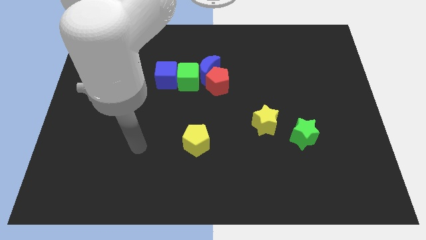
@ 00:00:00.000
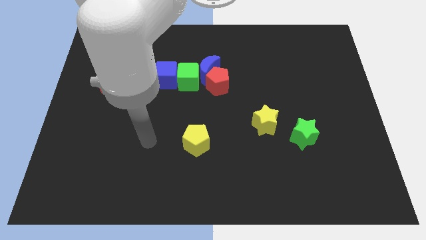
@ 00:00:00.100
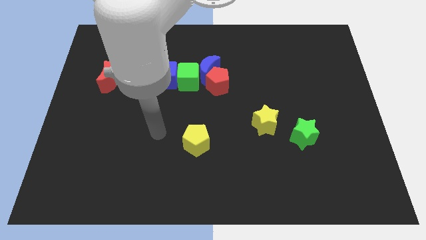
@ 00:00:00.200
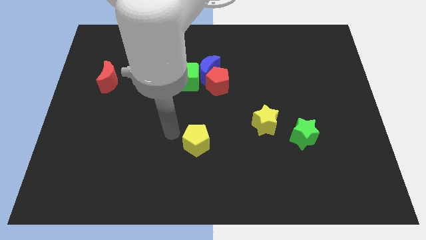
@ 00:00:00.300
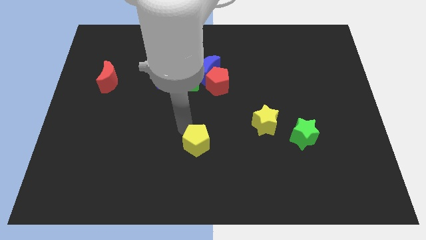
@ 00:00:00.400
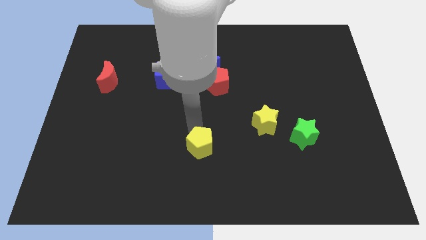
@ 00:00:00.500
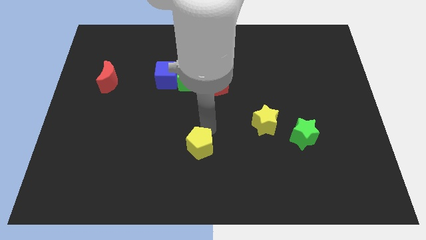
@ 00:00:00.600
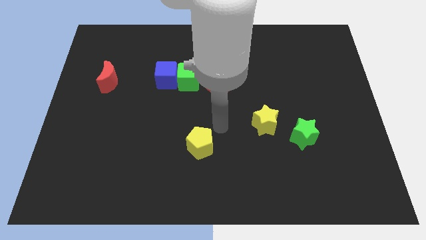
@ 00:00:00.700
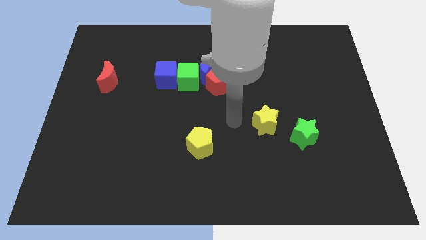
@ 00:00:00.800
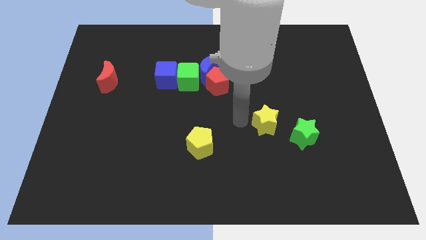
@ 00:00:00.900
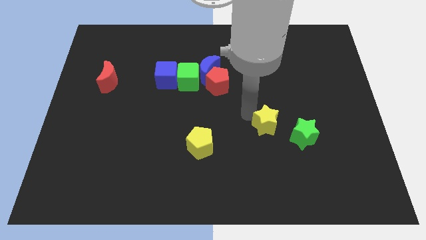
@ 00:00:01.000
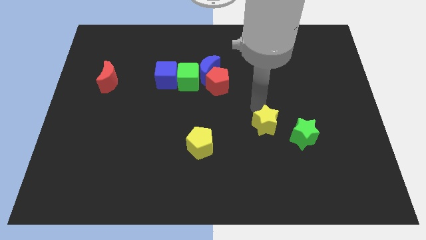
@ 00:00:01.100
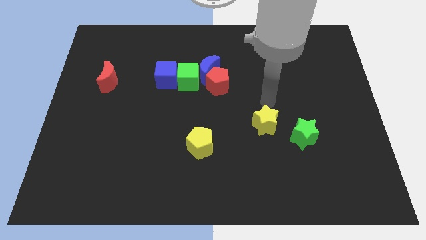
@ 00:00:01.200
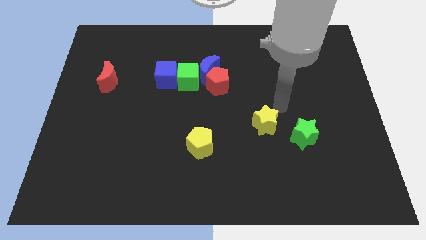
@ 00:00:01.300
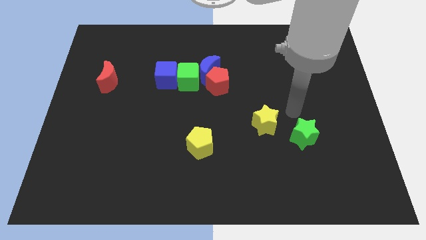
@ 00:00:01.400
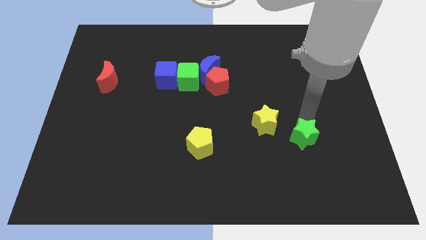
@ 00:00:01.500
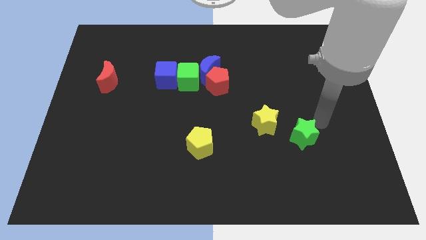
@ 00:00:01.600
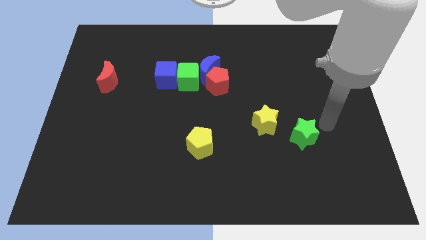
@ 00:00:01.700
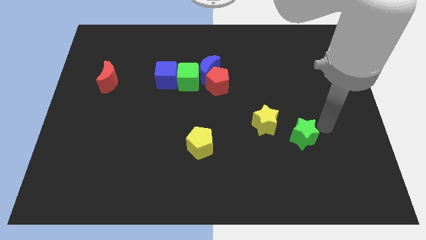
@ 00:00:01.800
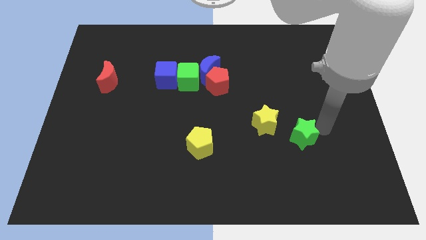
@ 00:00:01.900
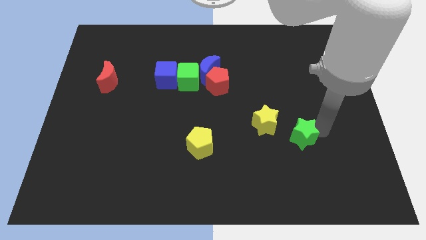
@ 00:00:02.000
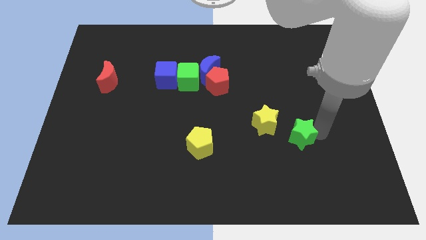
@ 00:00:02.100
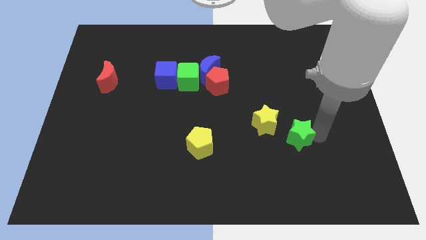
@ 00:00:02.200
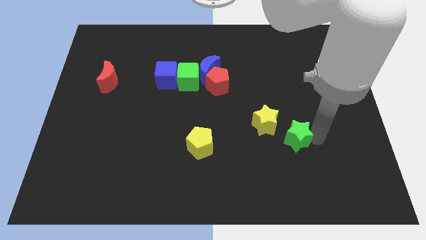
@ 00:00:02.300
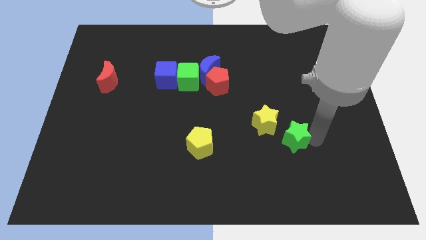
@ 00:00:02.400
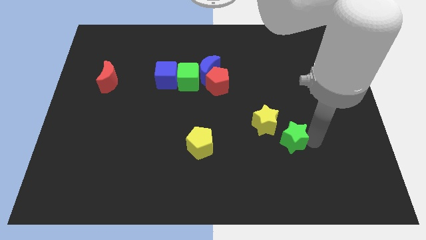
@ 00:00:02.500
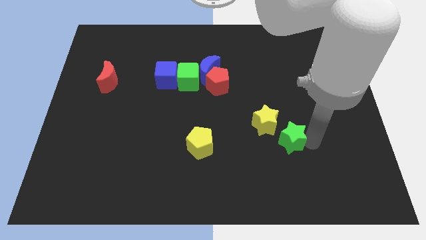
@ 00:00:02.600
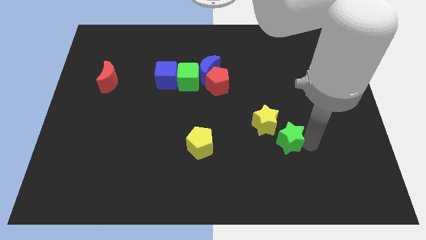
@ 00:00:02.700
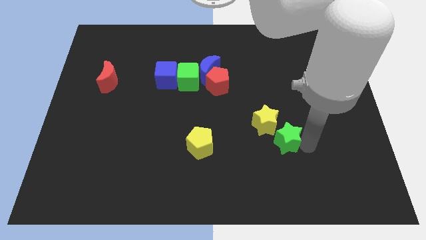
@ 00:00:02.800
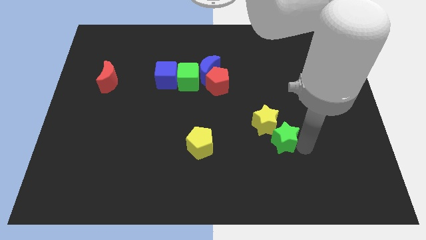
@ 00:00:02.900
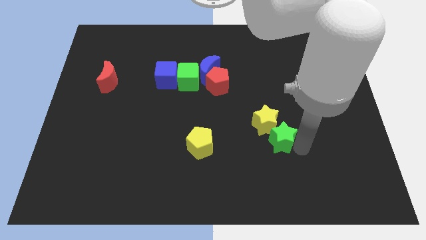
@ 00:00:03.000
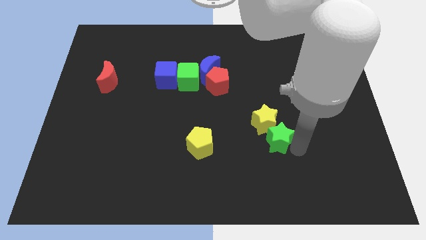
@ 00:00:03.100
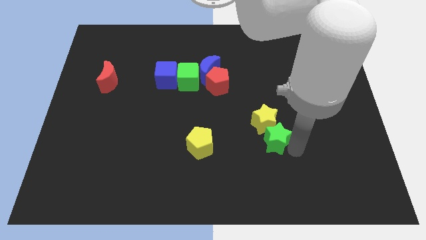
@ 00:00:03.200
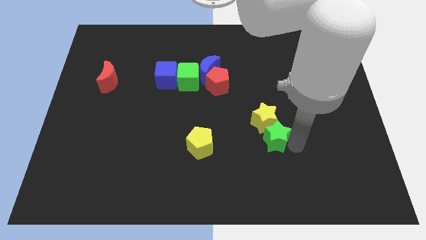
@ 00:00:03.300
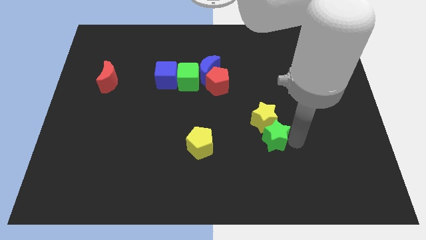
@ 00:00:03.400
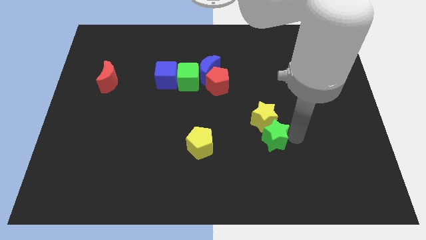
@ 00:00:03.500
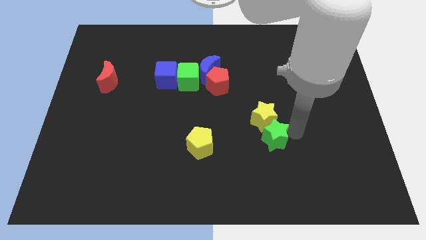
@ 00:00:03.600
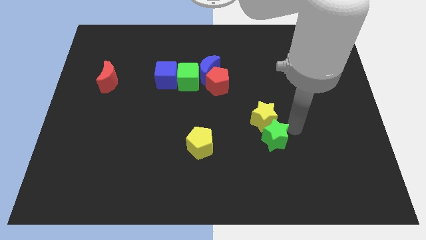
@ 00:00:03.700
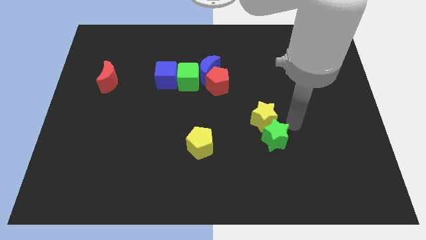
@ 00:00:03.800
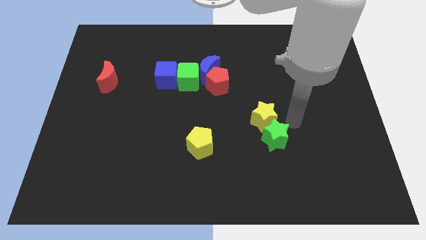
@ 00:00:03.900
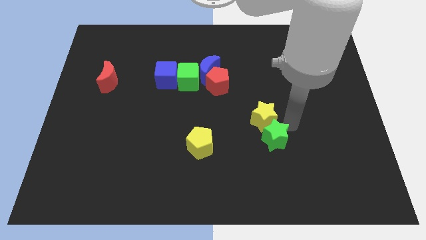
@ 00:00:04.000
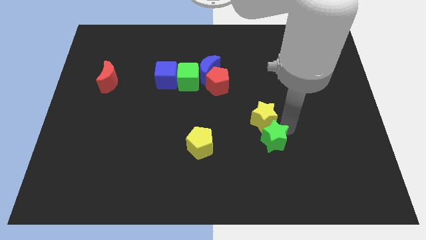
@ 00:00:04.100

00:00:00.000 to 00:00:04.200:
slightly slide the green star left

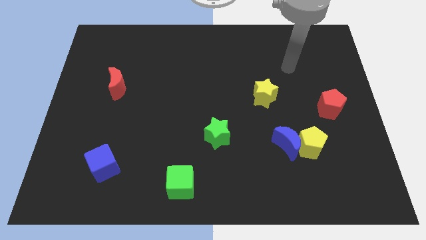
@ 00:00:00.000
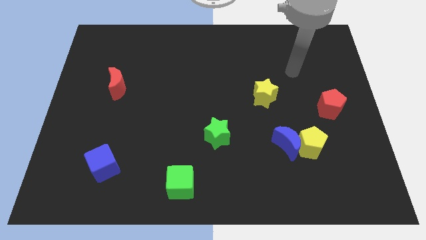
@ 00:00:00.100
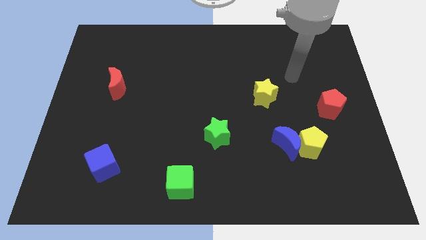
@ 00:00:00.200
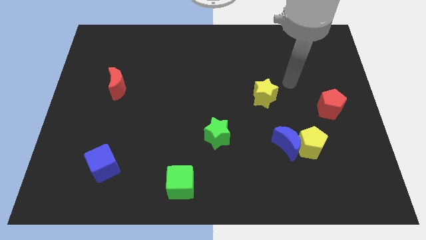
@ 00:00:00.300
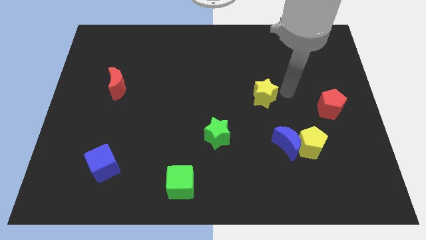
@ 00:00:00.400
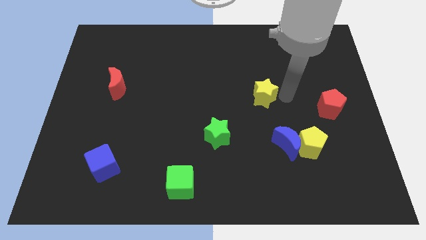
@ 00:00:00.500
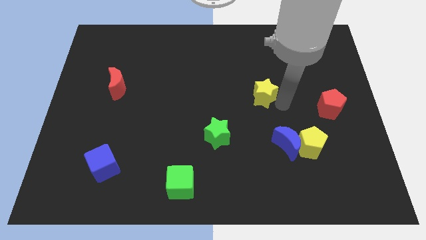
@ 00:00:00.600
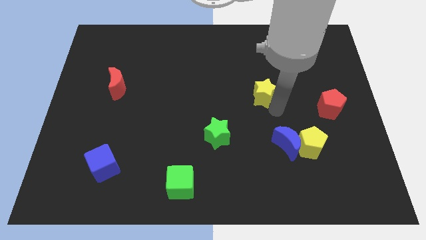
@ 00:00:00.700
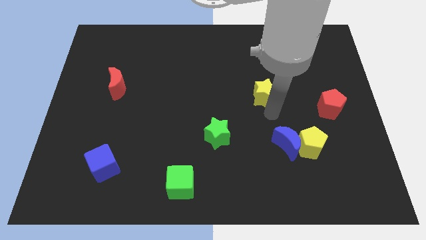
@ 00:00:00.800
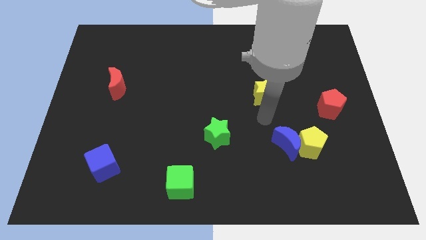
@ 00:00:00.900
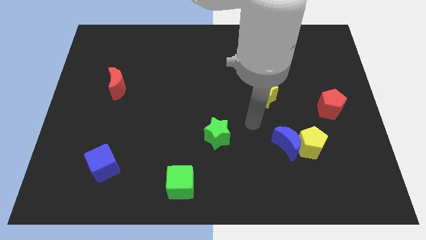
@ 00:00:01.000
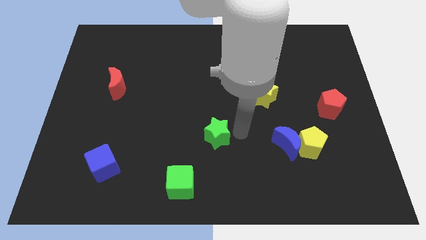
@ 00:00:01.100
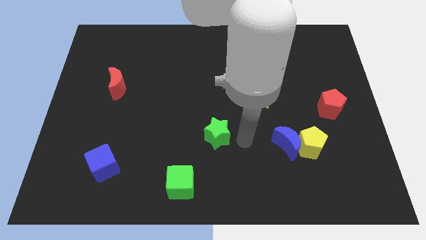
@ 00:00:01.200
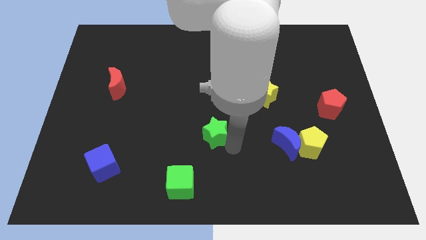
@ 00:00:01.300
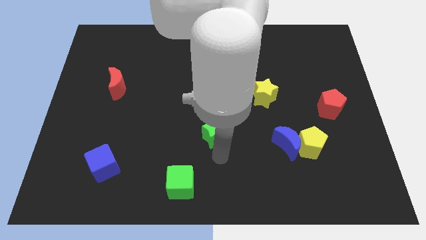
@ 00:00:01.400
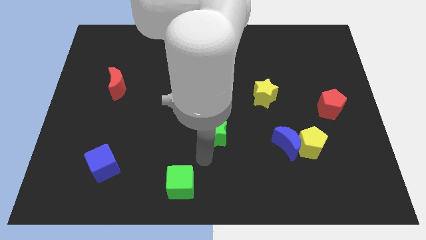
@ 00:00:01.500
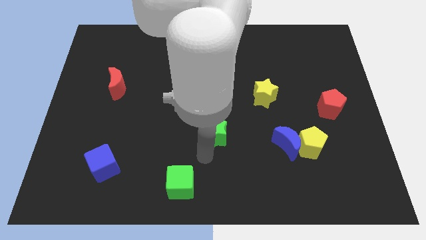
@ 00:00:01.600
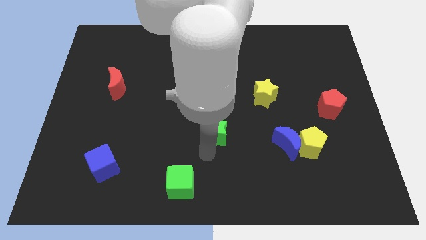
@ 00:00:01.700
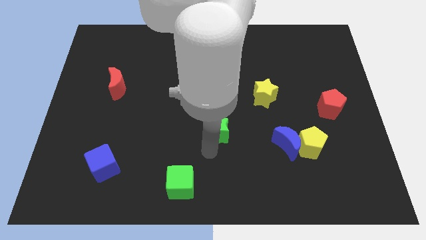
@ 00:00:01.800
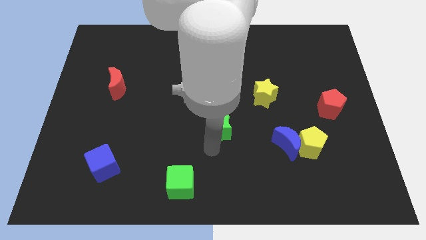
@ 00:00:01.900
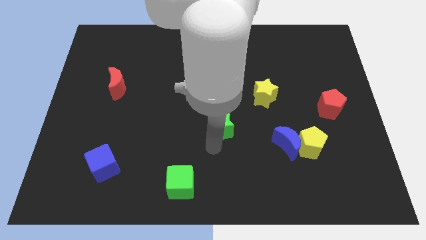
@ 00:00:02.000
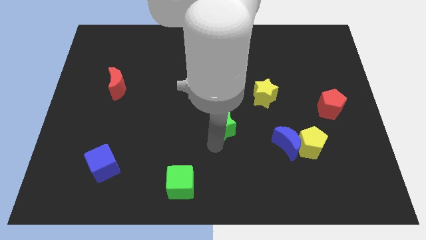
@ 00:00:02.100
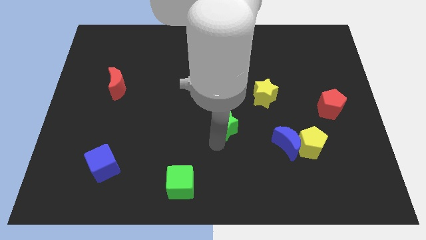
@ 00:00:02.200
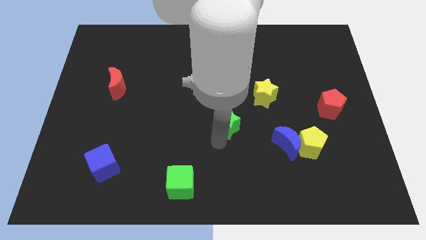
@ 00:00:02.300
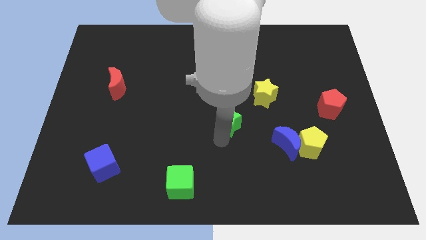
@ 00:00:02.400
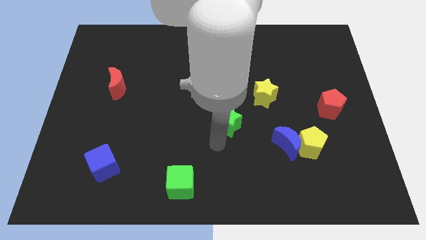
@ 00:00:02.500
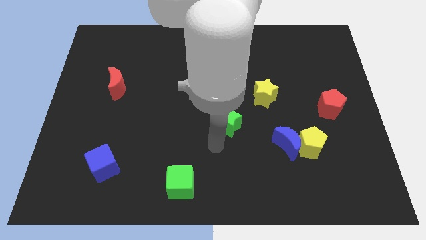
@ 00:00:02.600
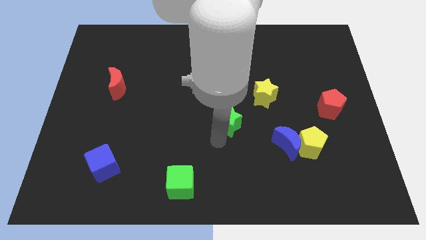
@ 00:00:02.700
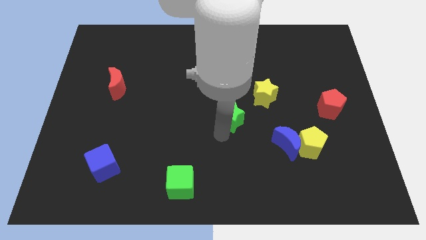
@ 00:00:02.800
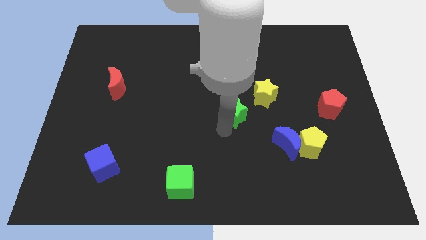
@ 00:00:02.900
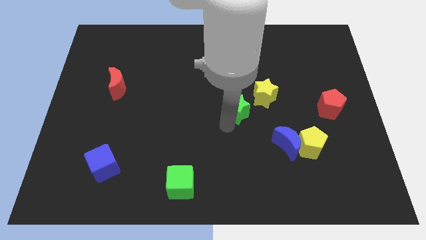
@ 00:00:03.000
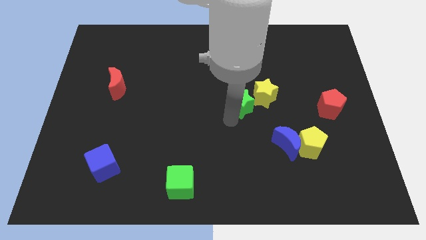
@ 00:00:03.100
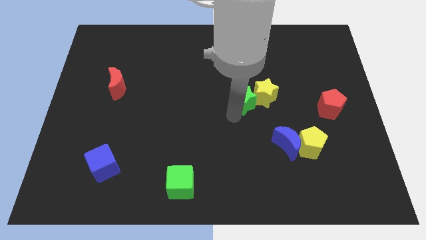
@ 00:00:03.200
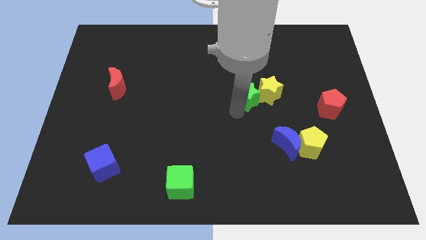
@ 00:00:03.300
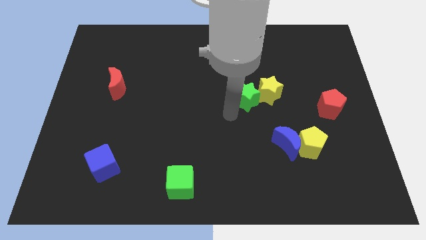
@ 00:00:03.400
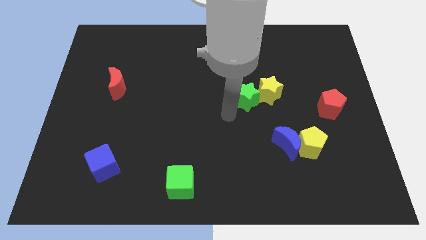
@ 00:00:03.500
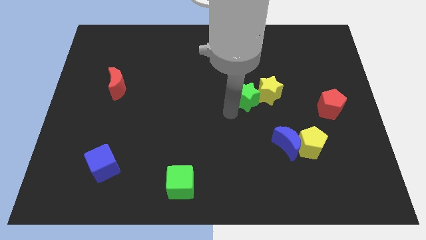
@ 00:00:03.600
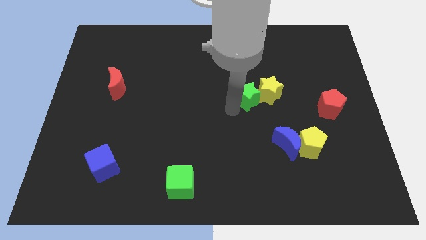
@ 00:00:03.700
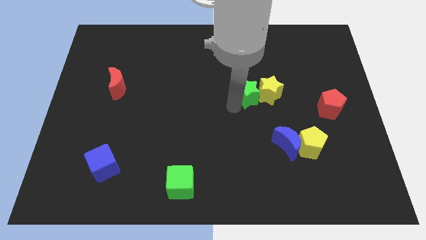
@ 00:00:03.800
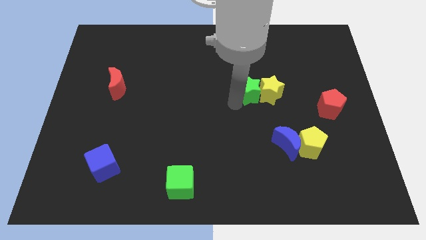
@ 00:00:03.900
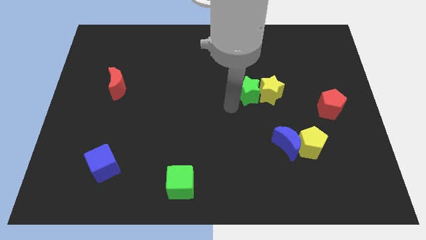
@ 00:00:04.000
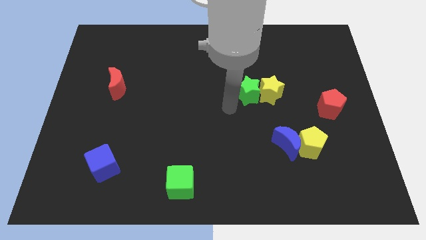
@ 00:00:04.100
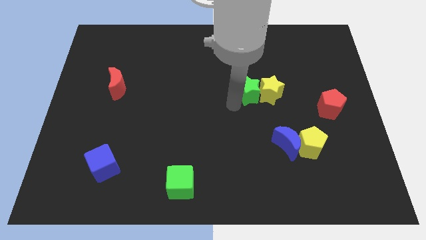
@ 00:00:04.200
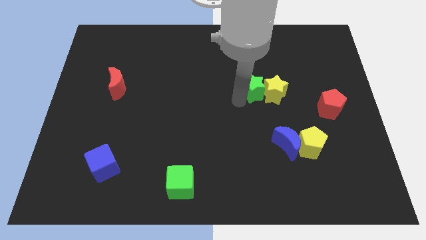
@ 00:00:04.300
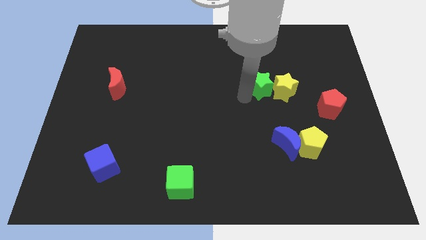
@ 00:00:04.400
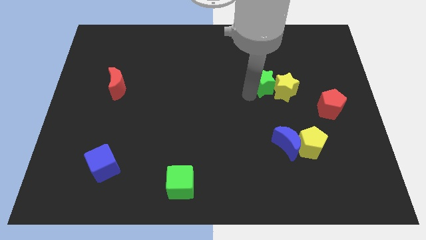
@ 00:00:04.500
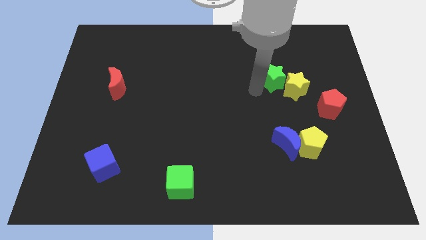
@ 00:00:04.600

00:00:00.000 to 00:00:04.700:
slide the green star diagonally upwards and to the right
